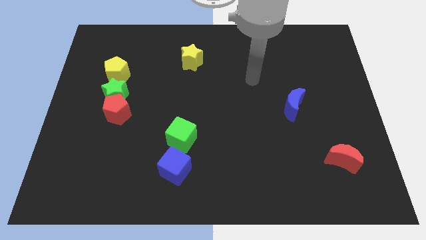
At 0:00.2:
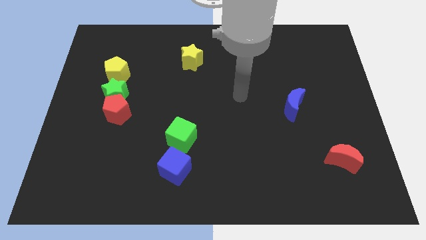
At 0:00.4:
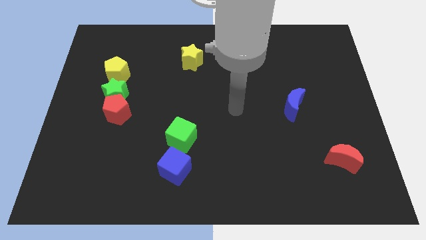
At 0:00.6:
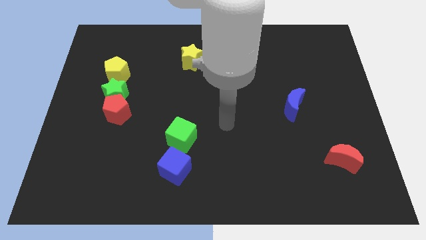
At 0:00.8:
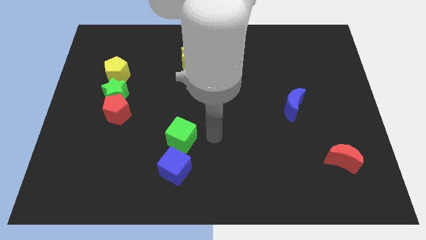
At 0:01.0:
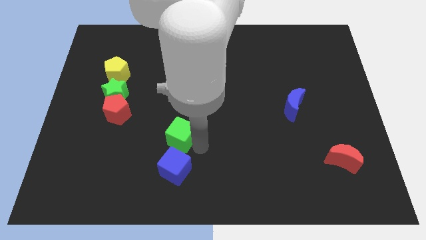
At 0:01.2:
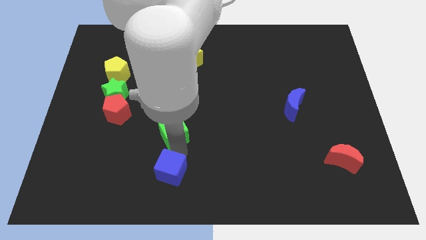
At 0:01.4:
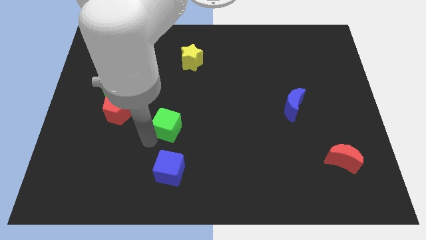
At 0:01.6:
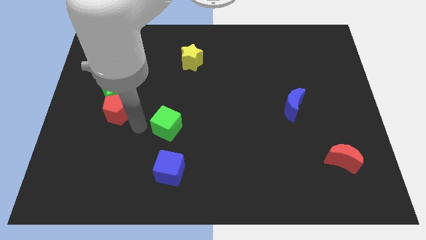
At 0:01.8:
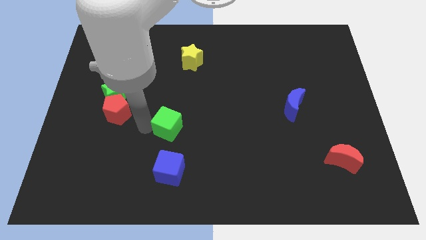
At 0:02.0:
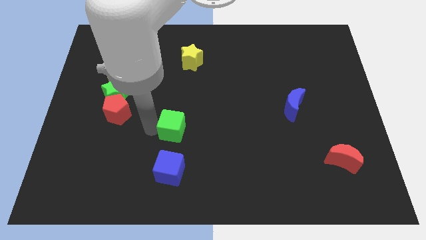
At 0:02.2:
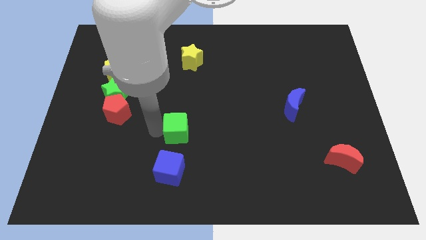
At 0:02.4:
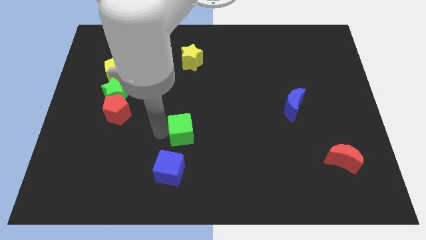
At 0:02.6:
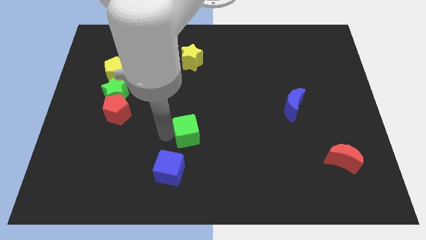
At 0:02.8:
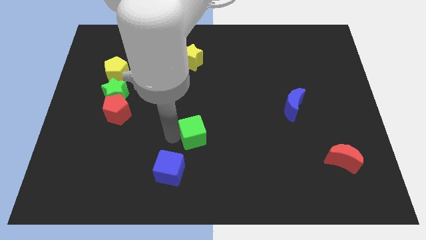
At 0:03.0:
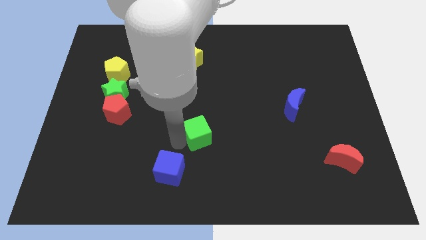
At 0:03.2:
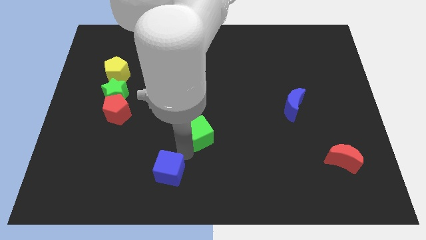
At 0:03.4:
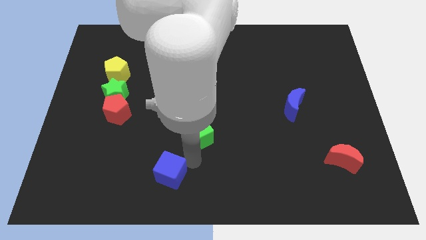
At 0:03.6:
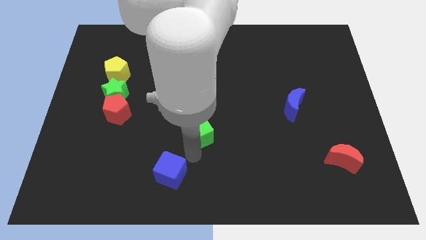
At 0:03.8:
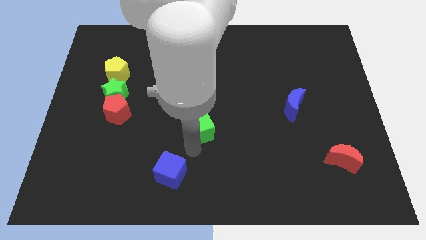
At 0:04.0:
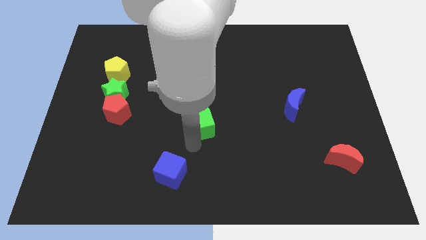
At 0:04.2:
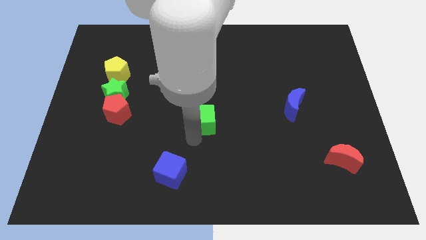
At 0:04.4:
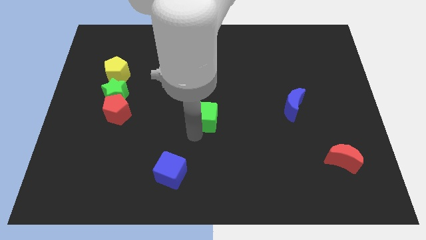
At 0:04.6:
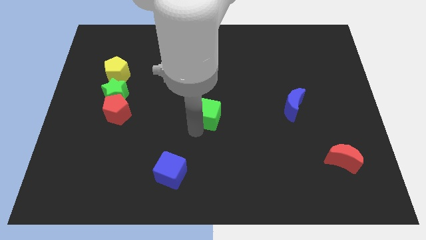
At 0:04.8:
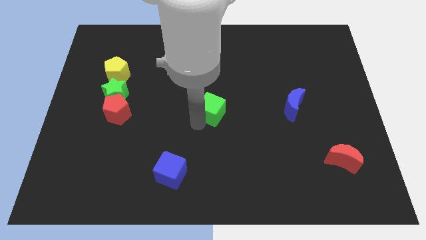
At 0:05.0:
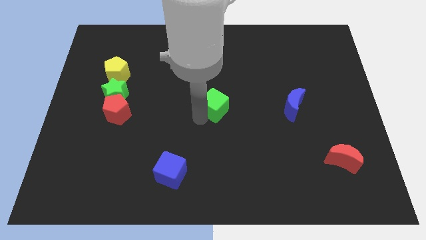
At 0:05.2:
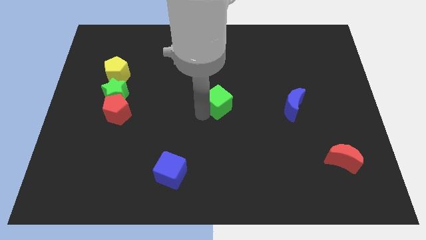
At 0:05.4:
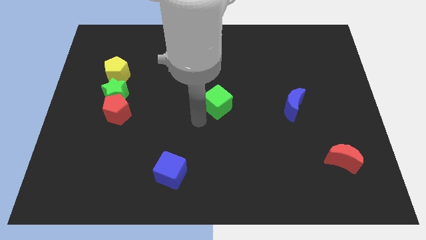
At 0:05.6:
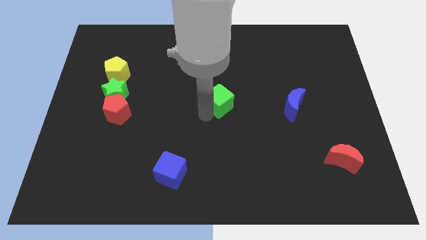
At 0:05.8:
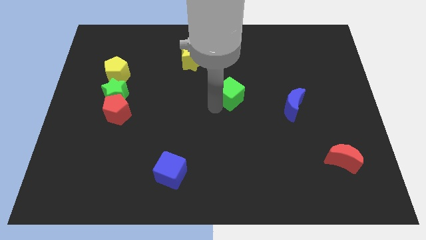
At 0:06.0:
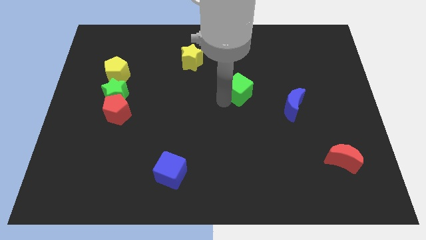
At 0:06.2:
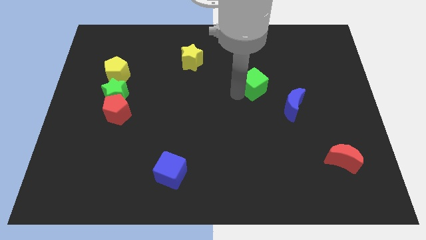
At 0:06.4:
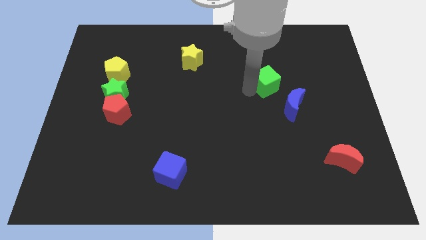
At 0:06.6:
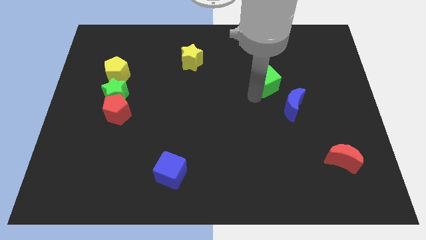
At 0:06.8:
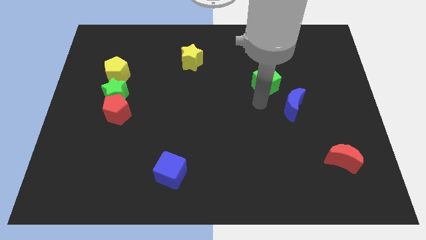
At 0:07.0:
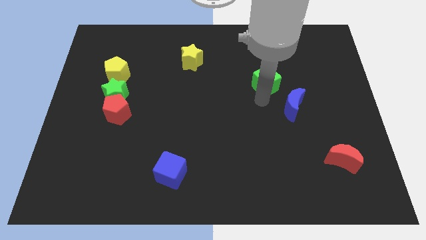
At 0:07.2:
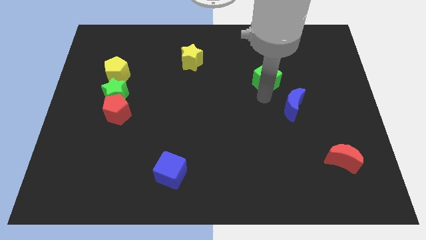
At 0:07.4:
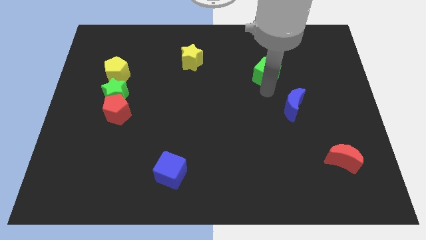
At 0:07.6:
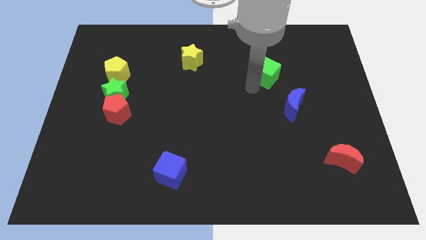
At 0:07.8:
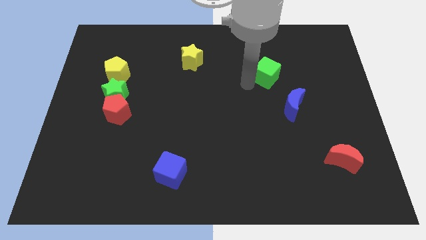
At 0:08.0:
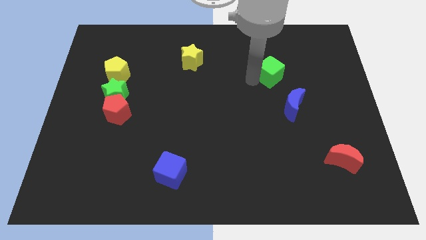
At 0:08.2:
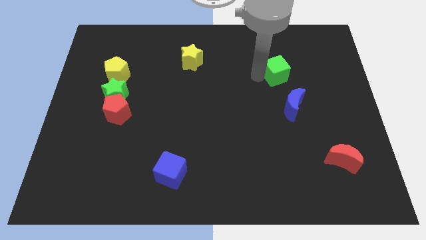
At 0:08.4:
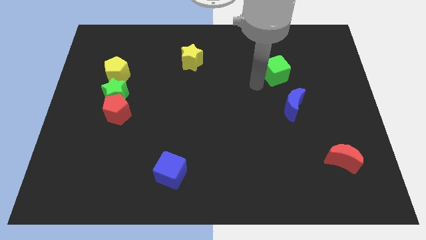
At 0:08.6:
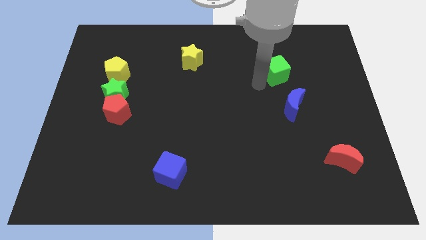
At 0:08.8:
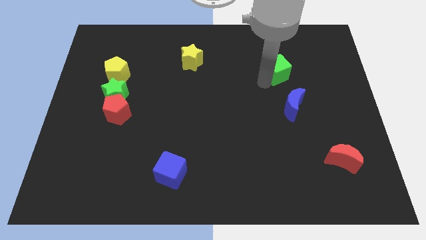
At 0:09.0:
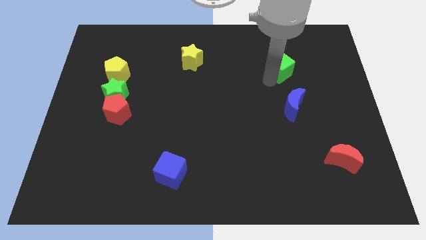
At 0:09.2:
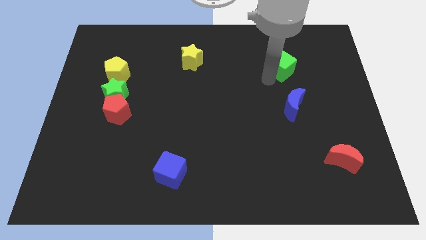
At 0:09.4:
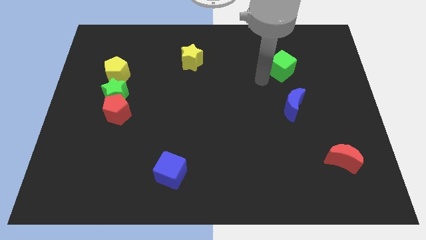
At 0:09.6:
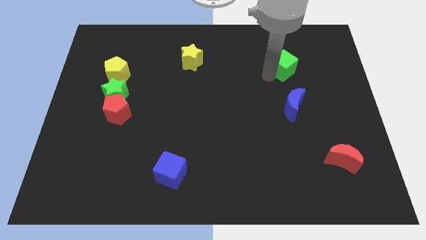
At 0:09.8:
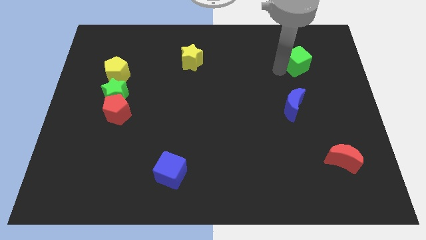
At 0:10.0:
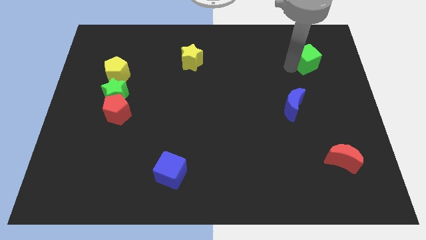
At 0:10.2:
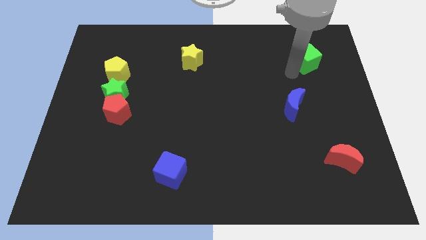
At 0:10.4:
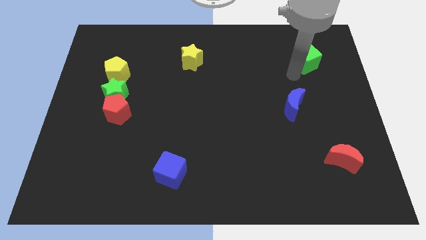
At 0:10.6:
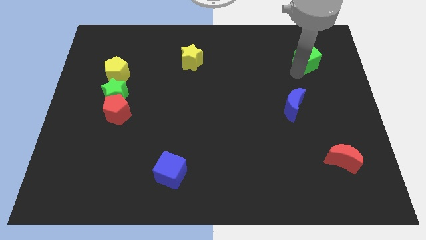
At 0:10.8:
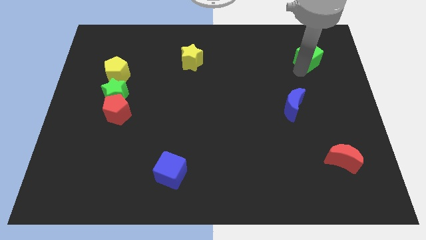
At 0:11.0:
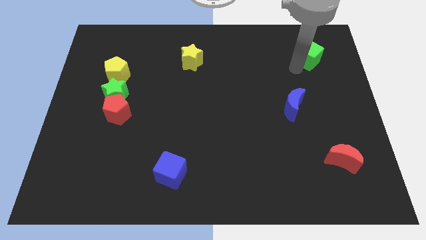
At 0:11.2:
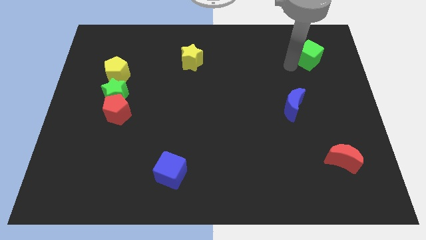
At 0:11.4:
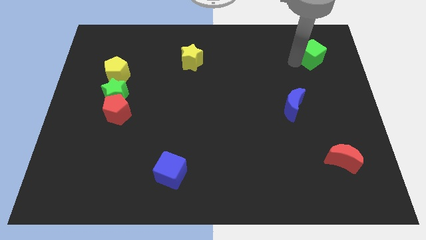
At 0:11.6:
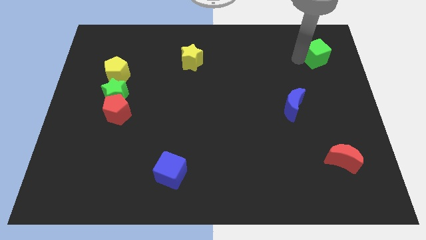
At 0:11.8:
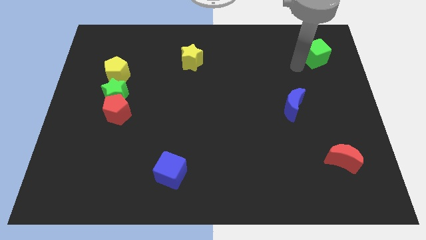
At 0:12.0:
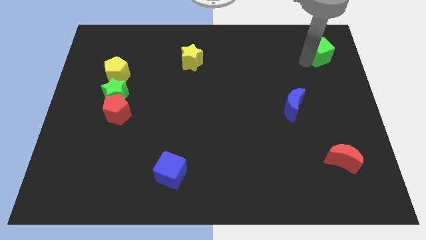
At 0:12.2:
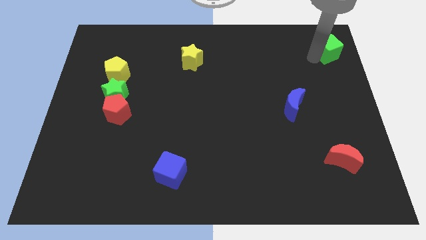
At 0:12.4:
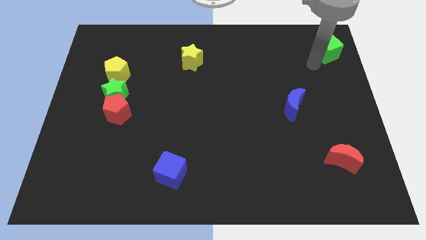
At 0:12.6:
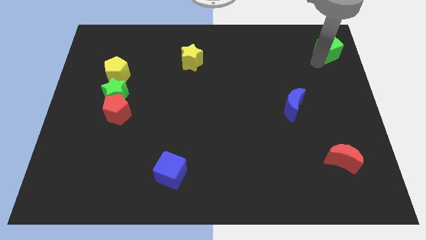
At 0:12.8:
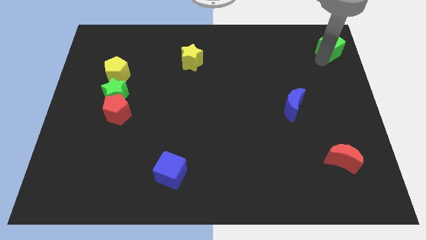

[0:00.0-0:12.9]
move the green cube to the top right of the board
